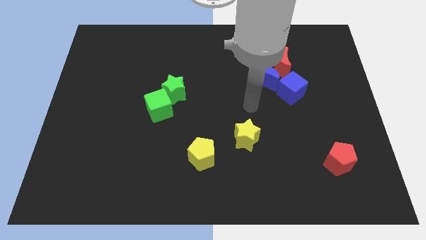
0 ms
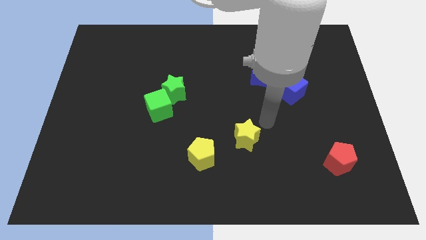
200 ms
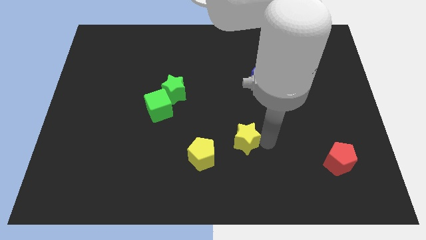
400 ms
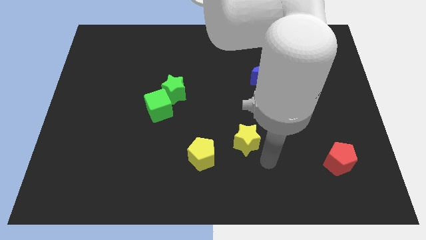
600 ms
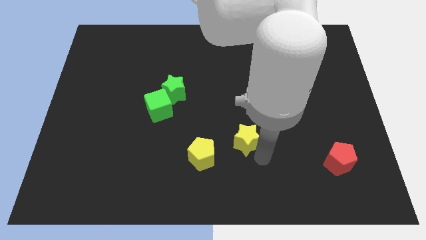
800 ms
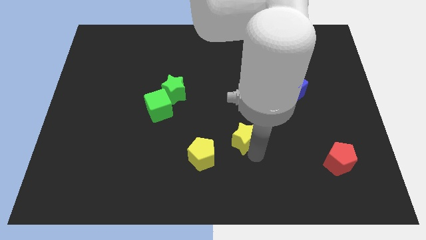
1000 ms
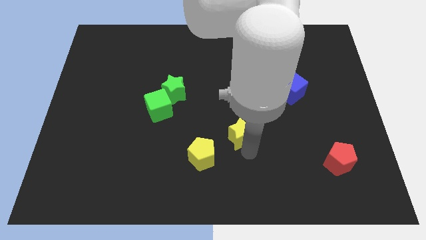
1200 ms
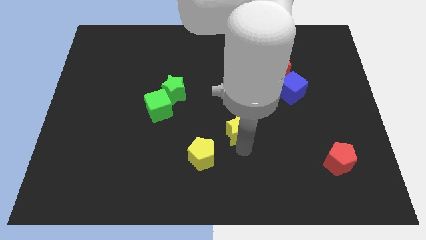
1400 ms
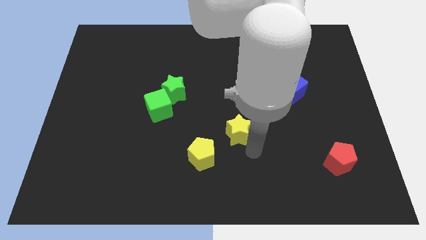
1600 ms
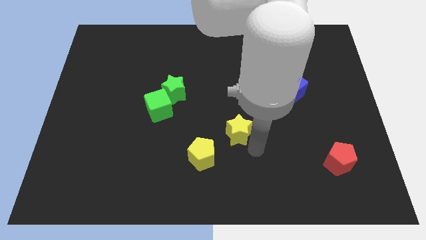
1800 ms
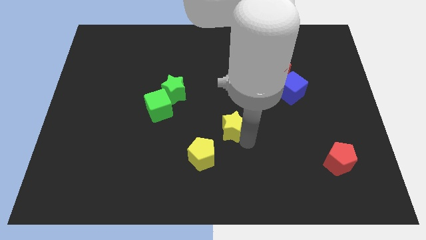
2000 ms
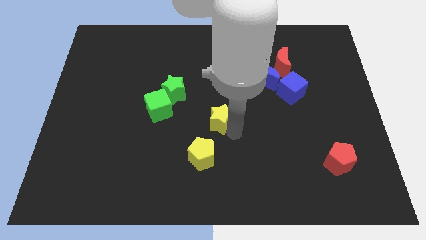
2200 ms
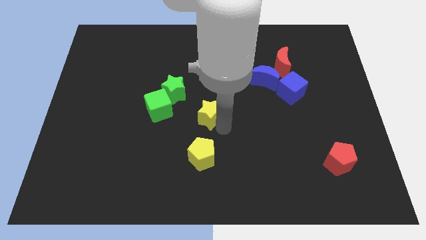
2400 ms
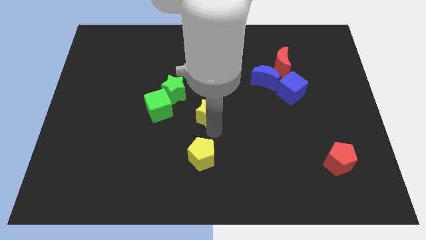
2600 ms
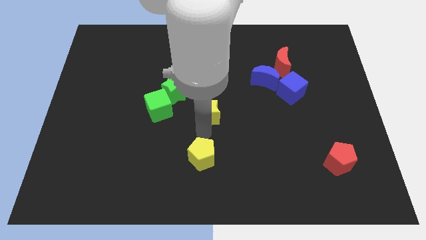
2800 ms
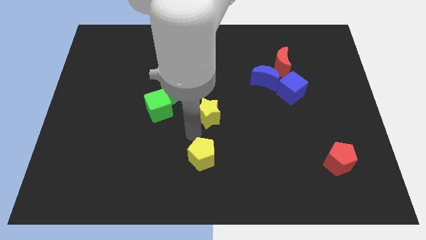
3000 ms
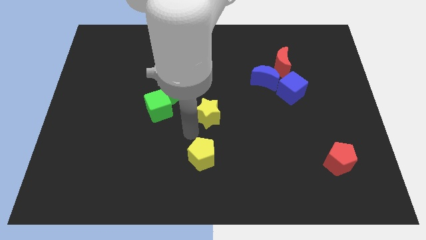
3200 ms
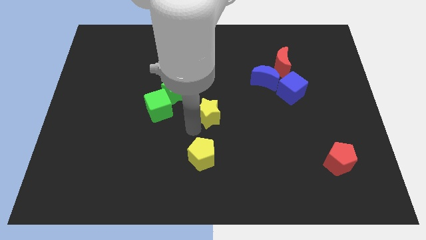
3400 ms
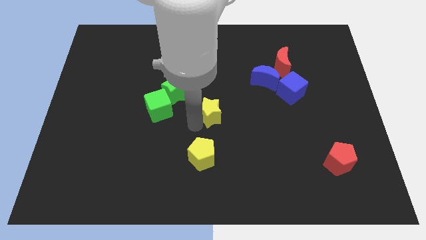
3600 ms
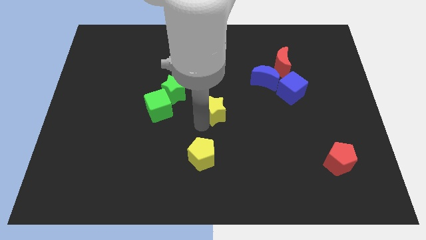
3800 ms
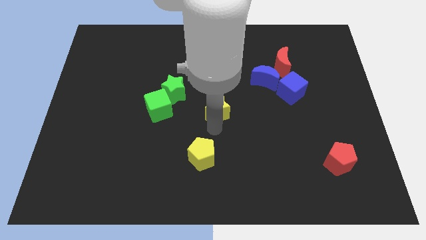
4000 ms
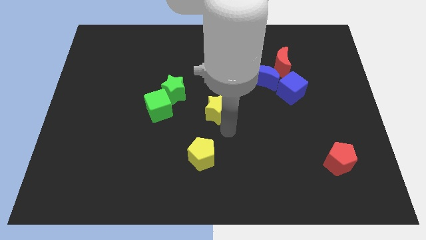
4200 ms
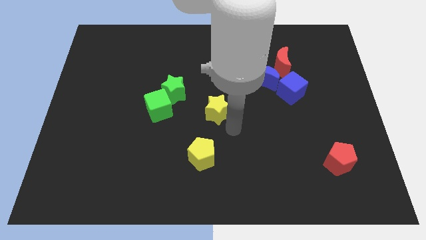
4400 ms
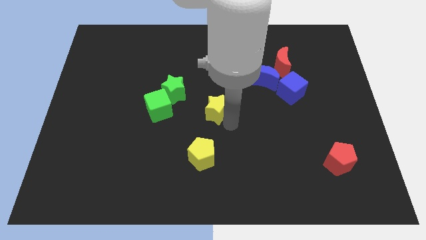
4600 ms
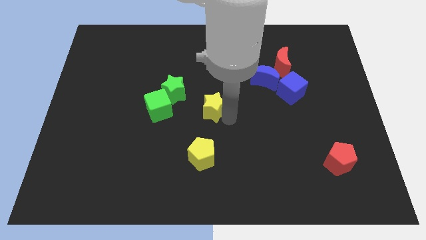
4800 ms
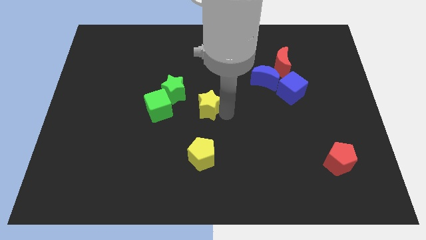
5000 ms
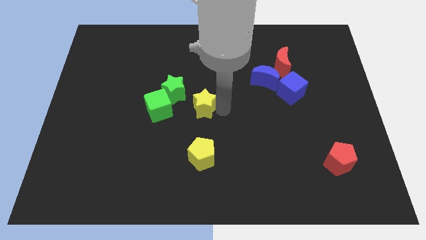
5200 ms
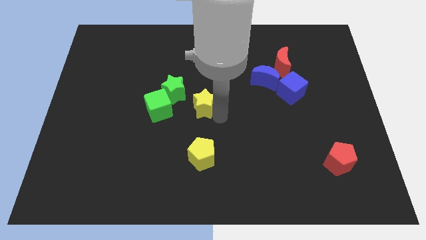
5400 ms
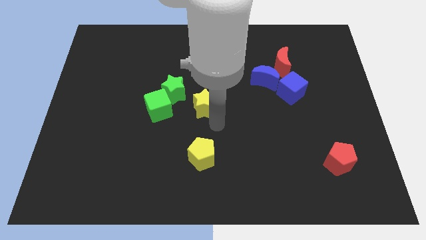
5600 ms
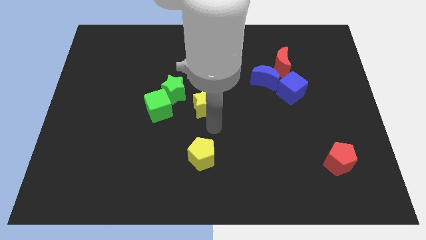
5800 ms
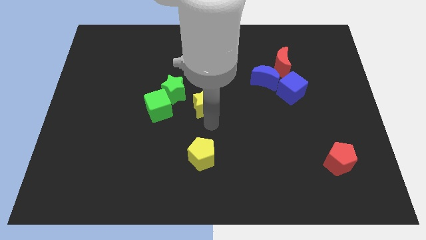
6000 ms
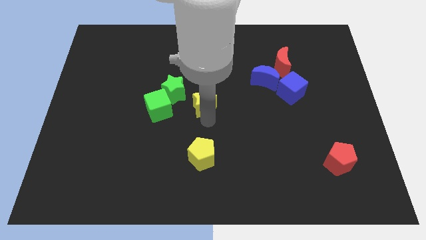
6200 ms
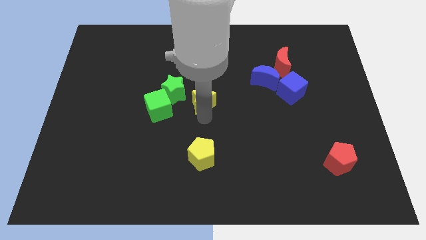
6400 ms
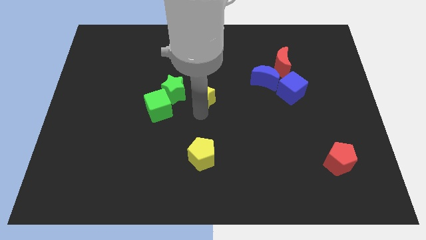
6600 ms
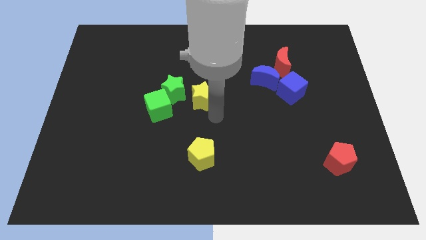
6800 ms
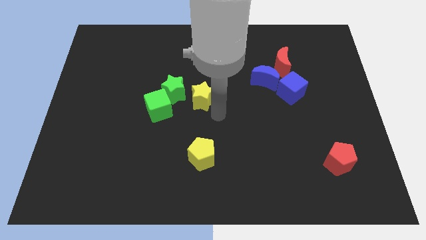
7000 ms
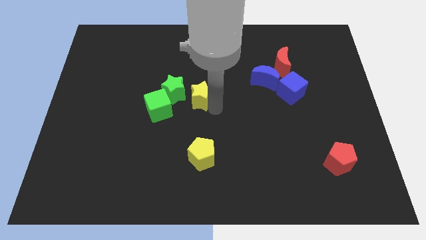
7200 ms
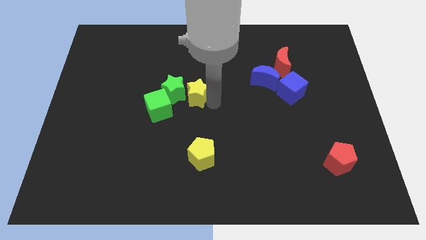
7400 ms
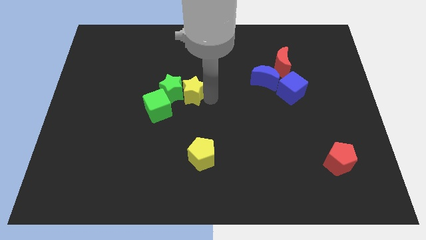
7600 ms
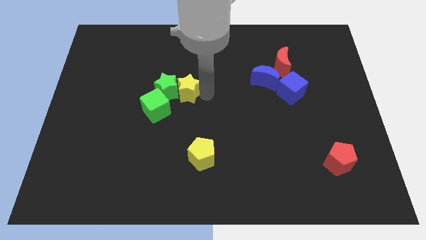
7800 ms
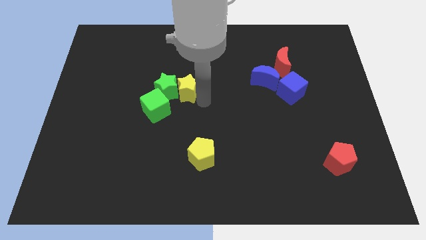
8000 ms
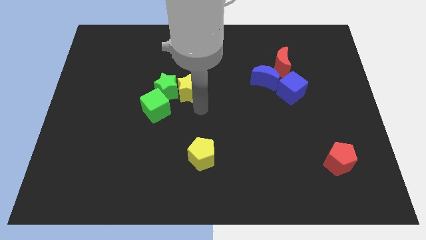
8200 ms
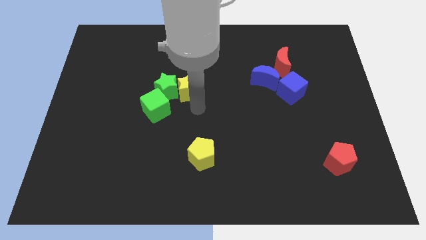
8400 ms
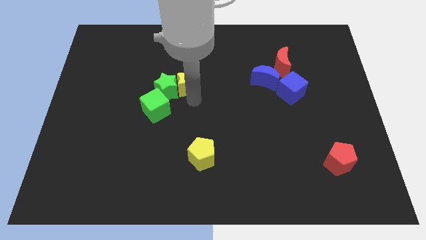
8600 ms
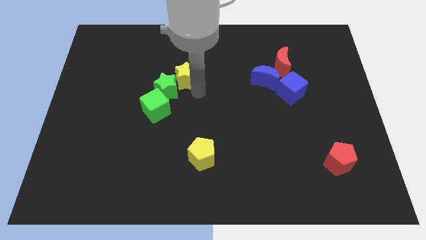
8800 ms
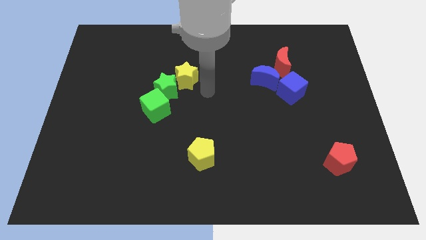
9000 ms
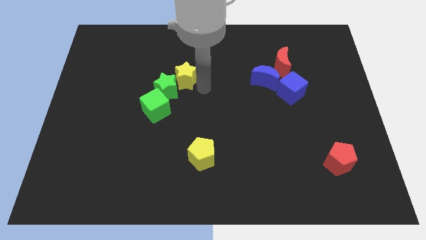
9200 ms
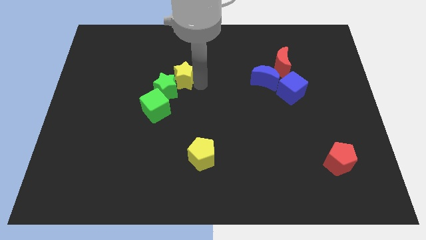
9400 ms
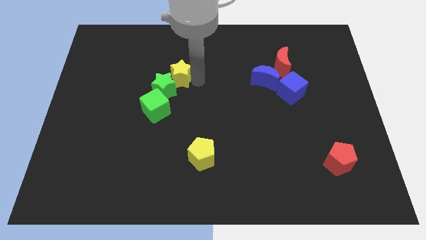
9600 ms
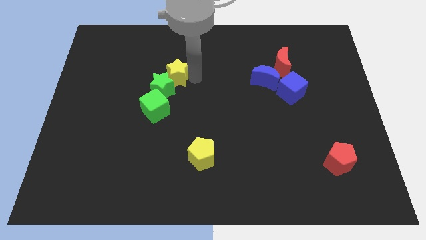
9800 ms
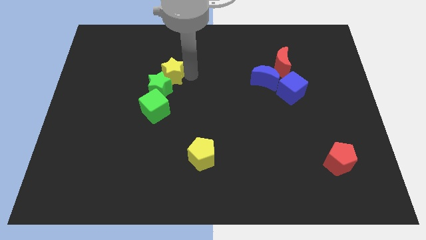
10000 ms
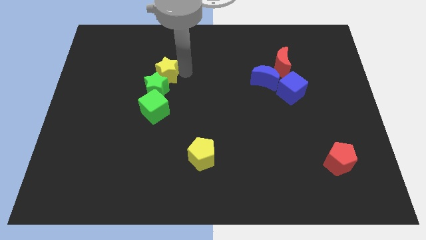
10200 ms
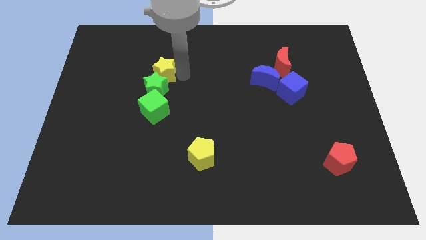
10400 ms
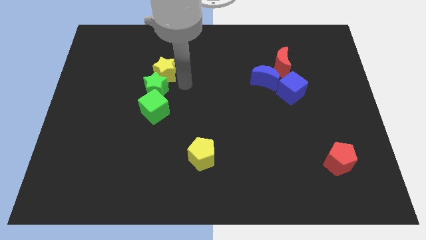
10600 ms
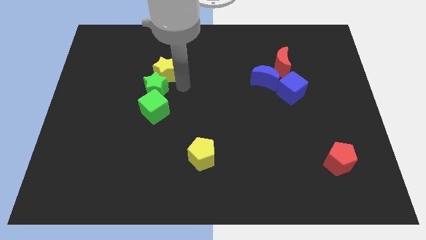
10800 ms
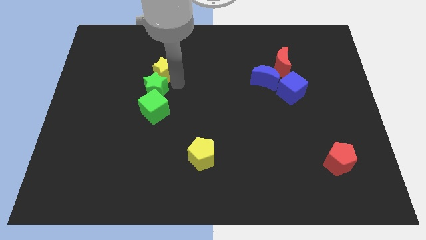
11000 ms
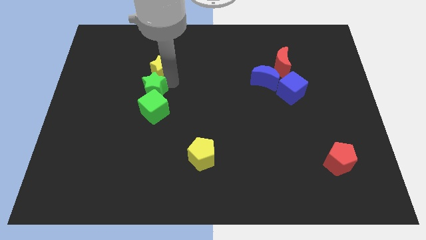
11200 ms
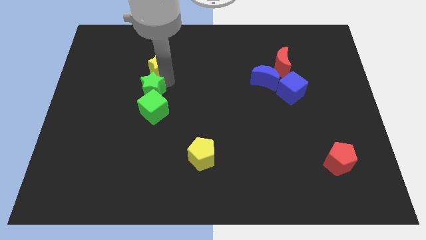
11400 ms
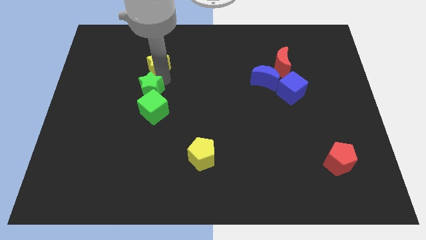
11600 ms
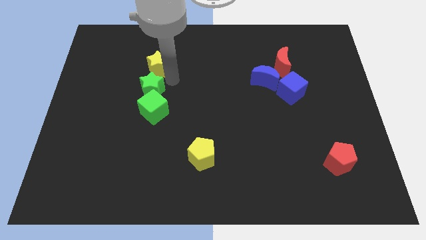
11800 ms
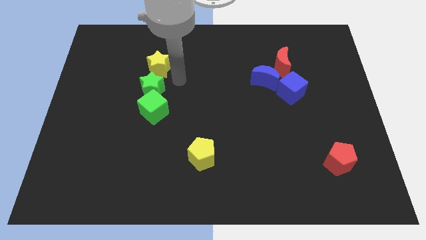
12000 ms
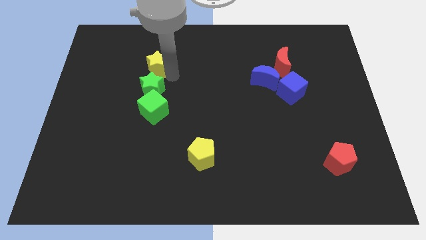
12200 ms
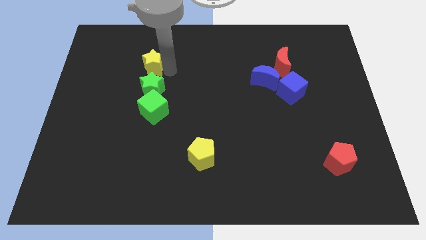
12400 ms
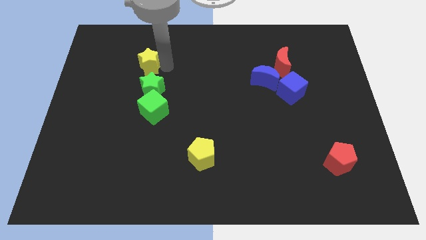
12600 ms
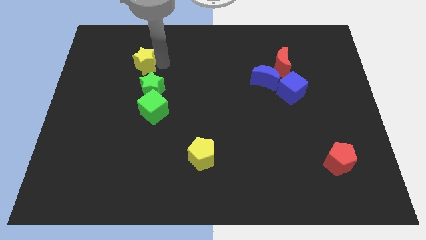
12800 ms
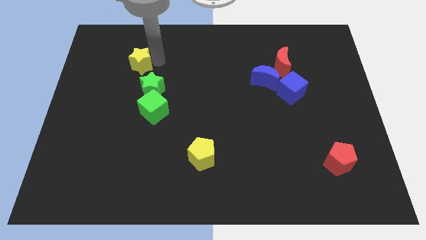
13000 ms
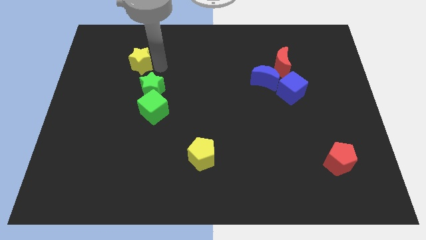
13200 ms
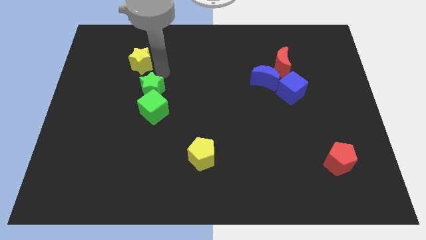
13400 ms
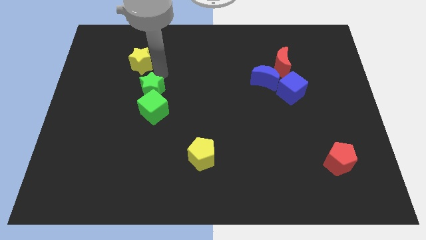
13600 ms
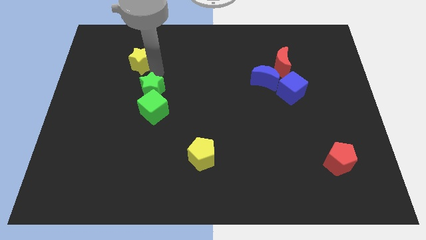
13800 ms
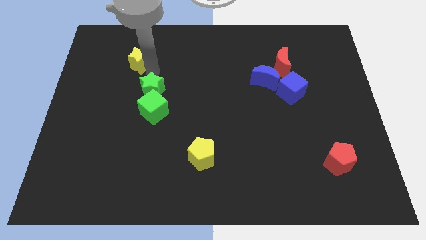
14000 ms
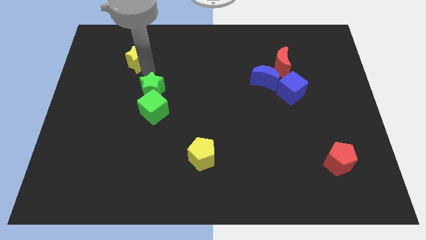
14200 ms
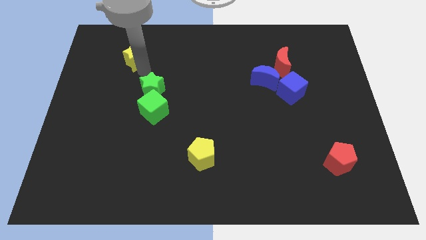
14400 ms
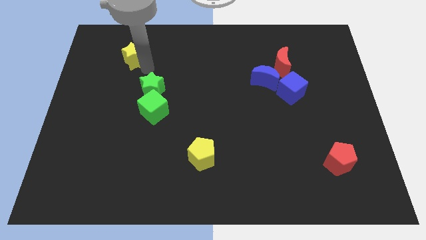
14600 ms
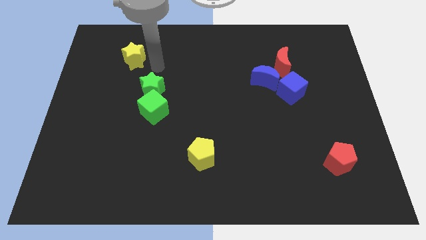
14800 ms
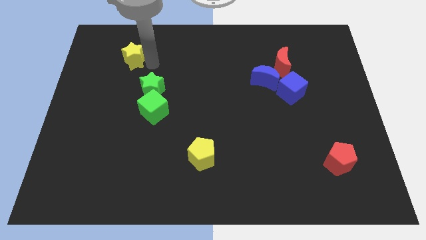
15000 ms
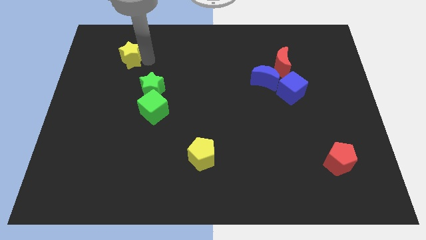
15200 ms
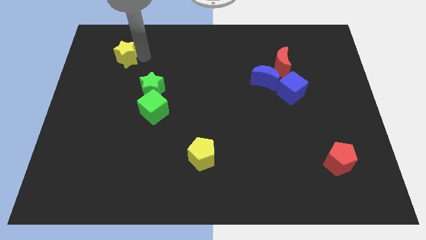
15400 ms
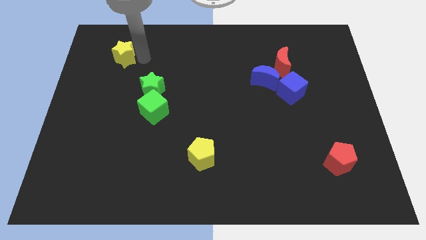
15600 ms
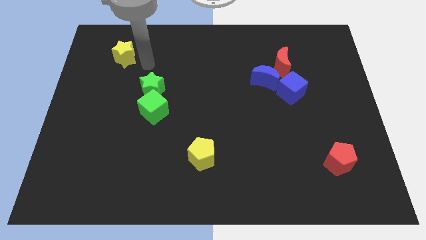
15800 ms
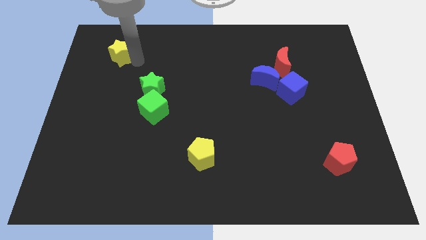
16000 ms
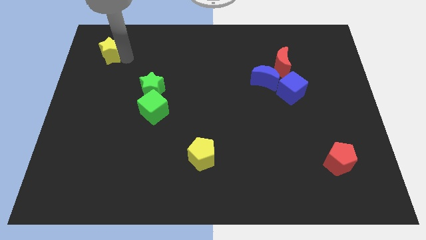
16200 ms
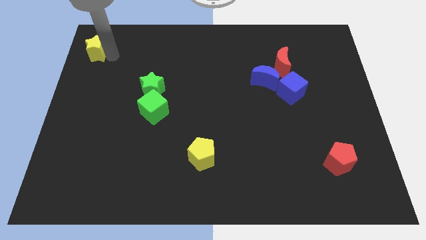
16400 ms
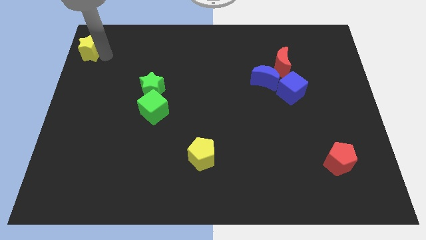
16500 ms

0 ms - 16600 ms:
push the yellow star to the top left corner
